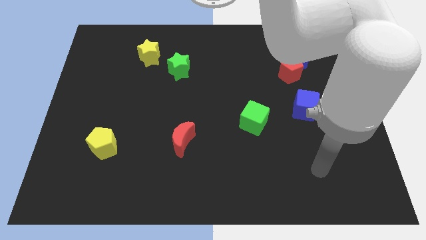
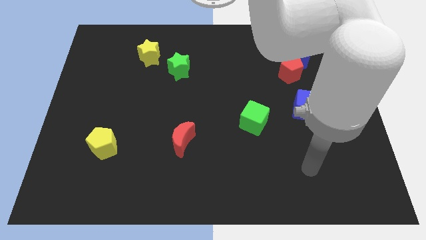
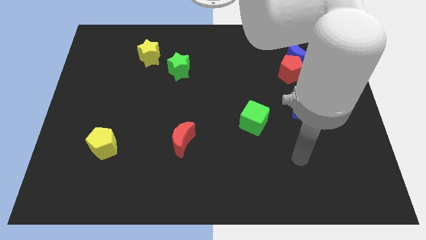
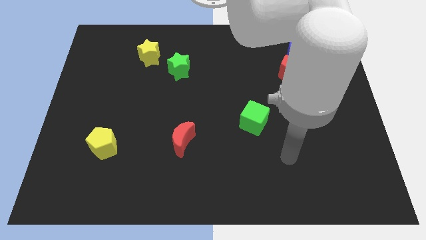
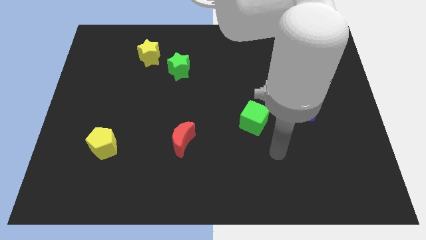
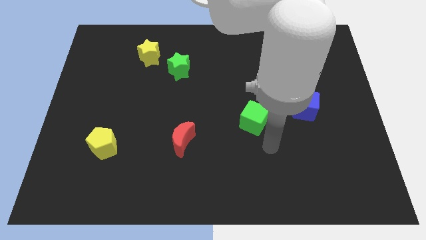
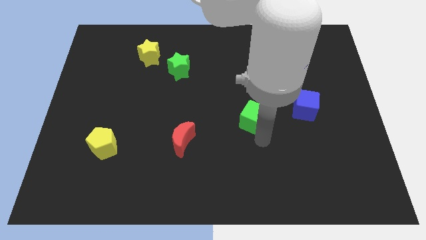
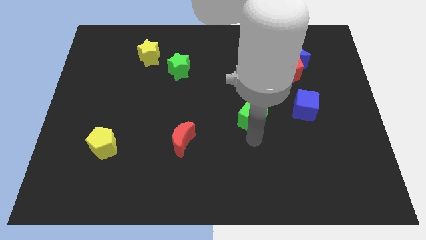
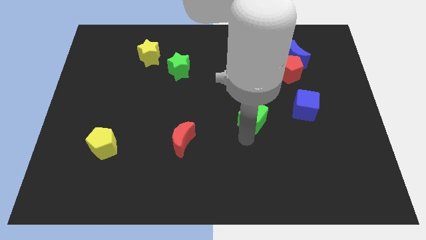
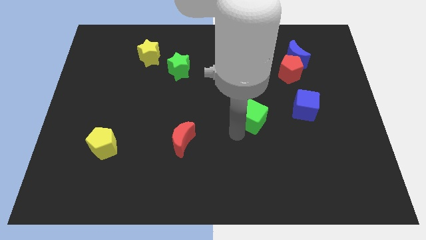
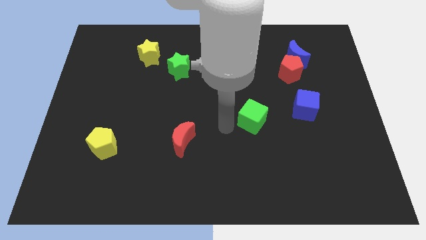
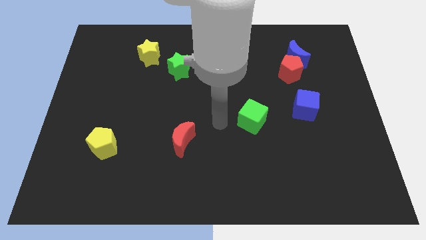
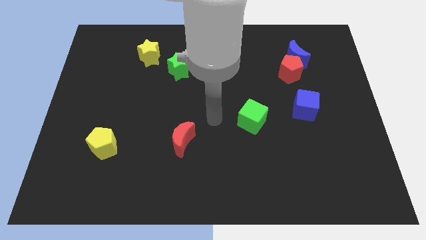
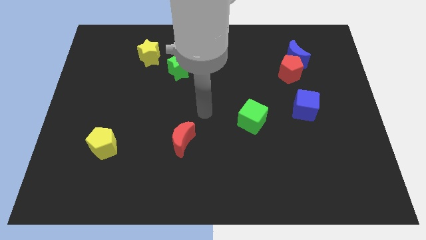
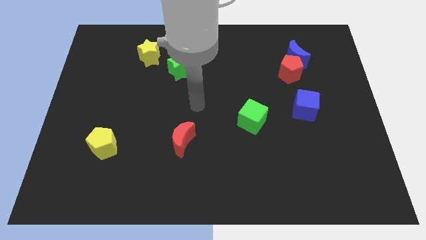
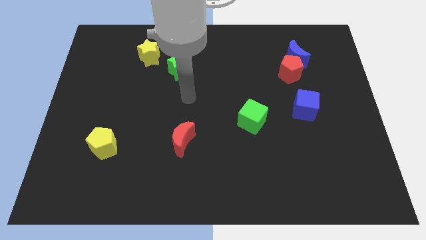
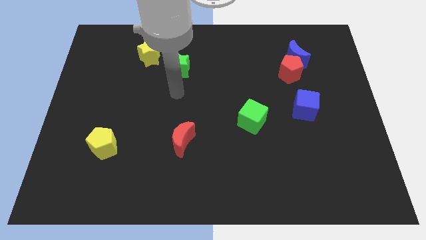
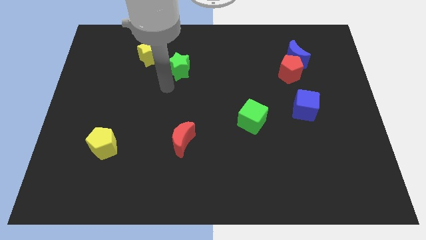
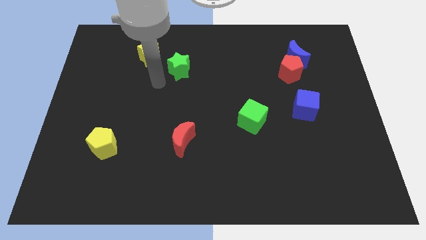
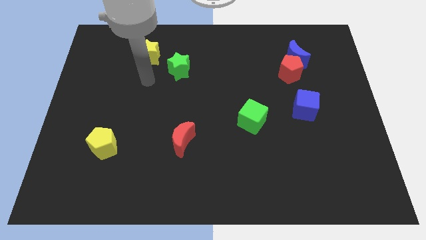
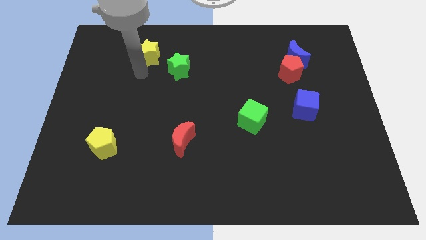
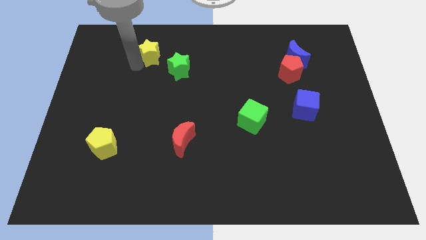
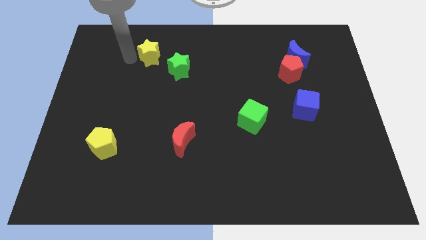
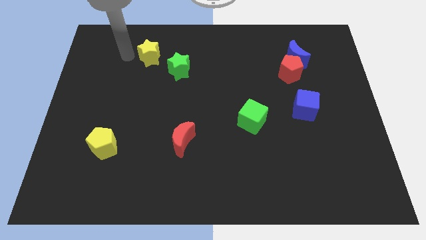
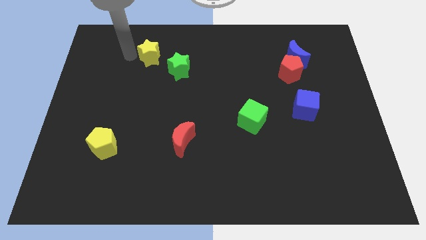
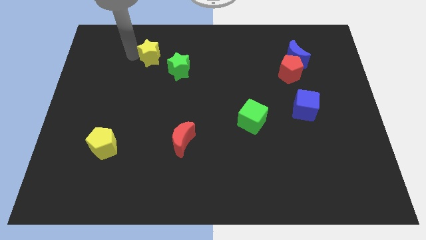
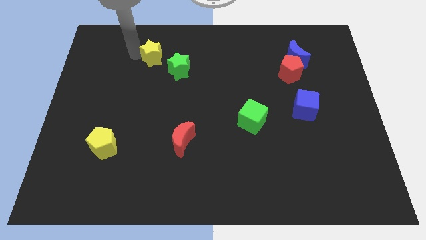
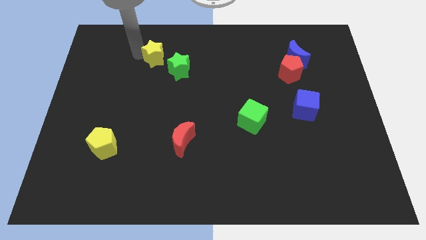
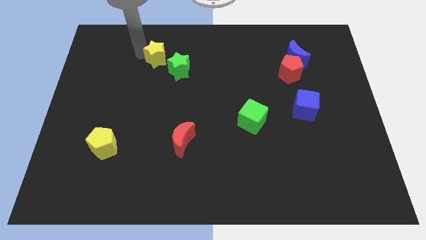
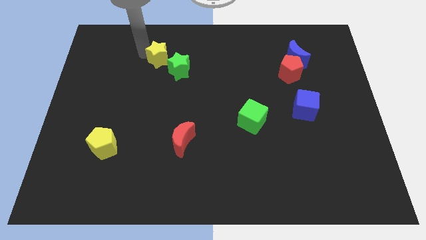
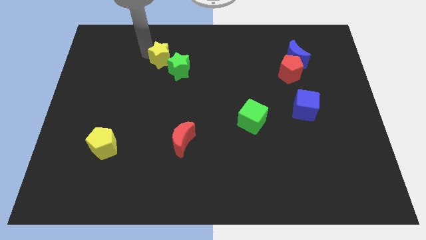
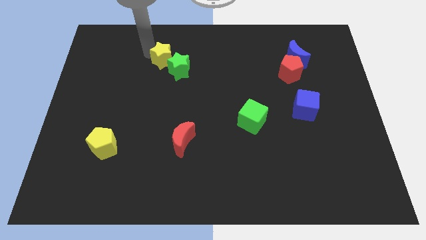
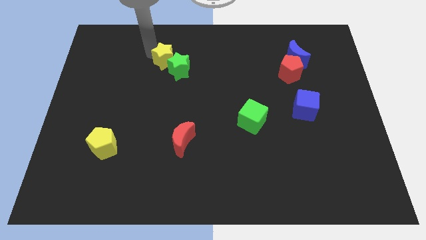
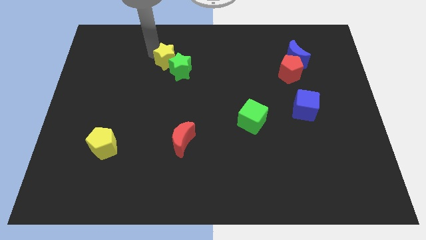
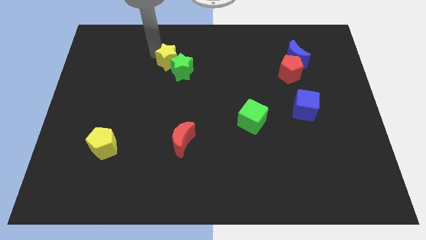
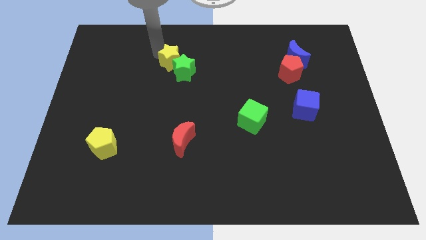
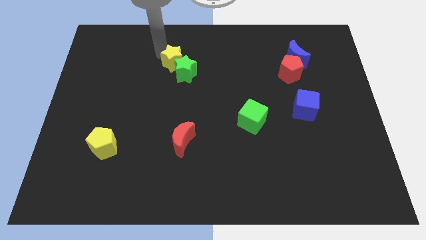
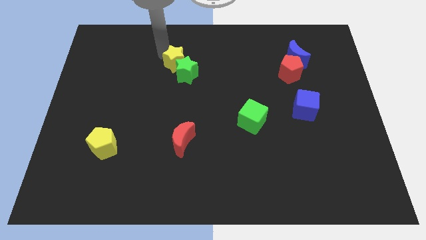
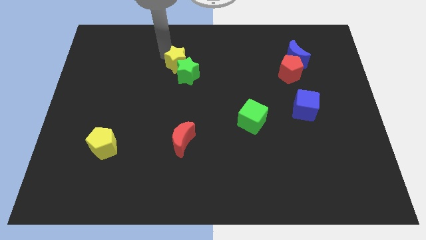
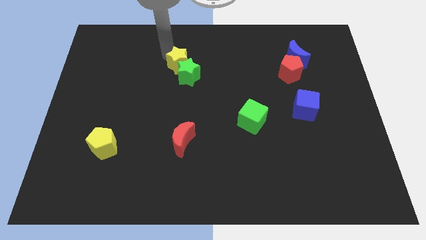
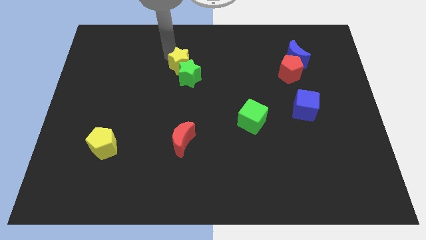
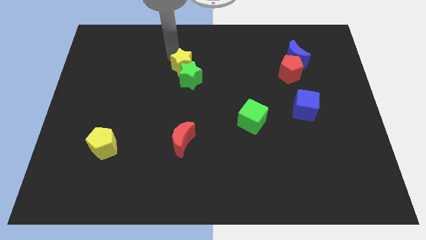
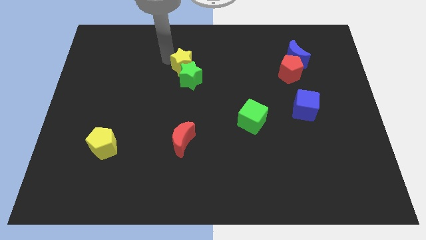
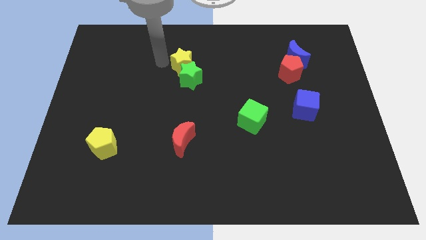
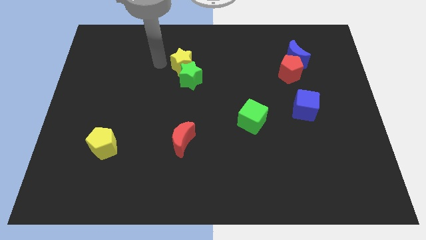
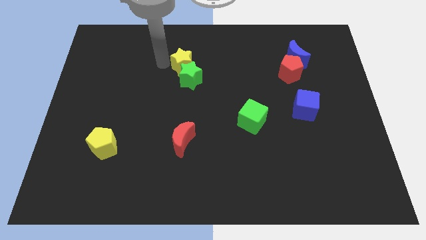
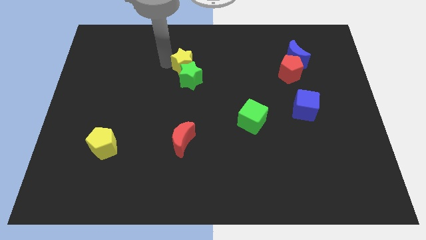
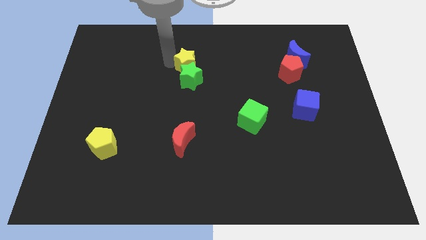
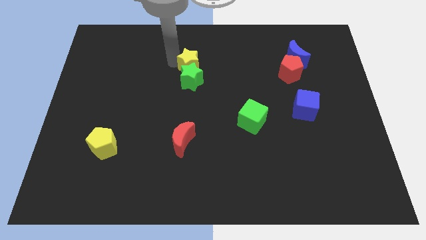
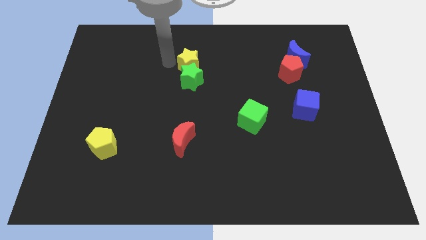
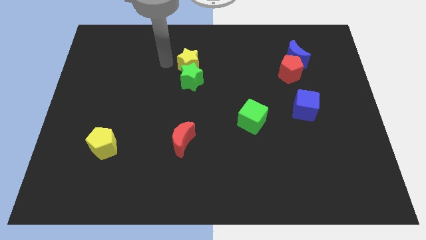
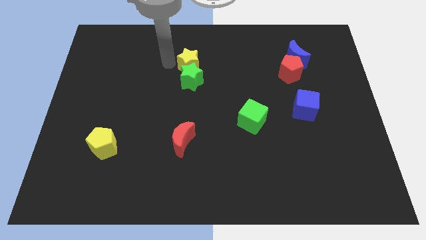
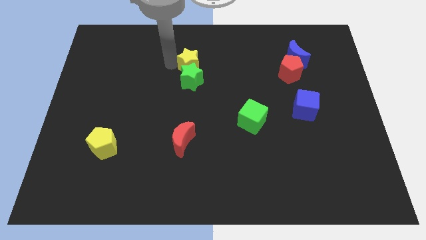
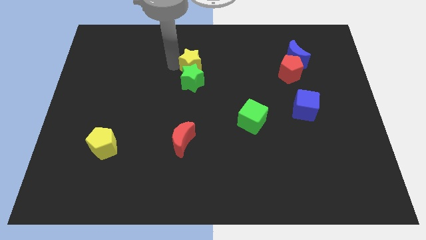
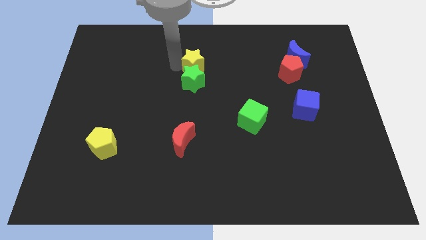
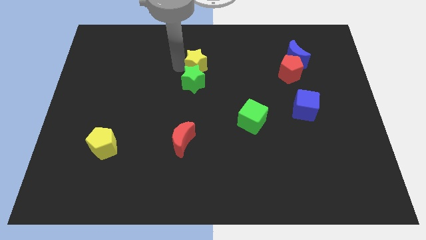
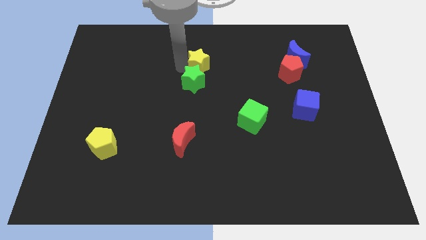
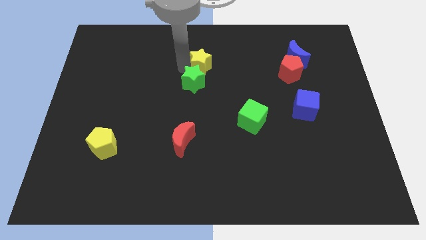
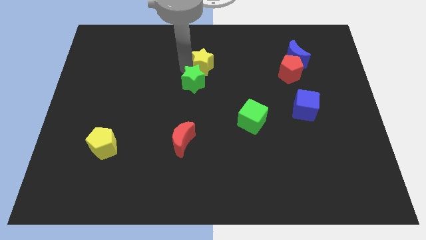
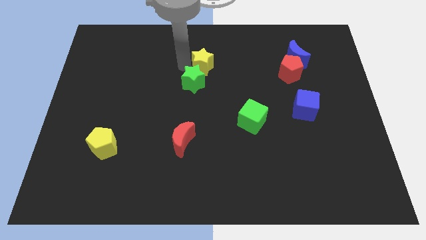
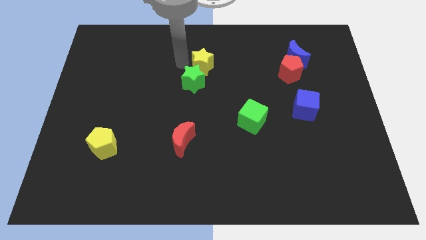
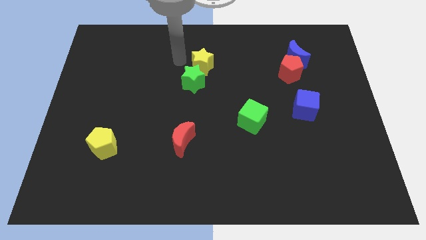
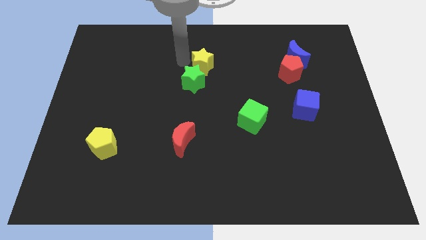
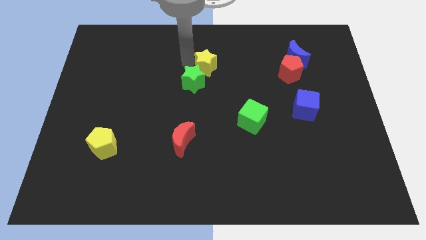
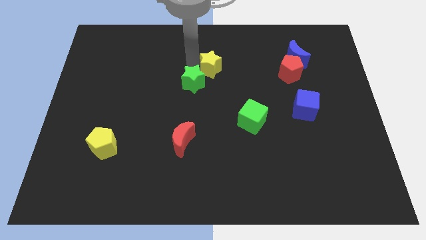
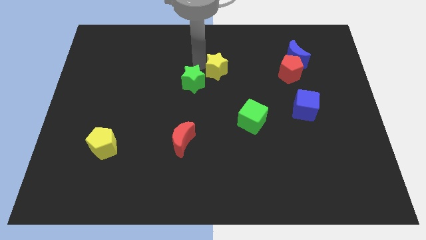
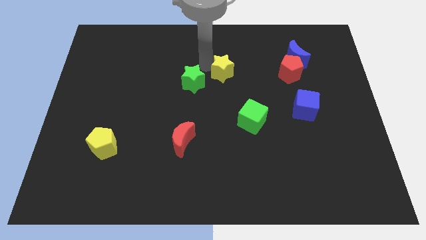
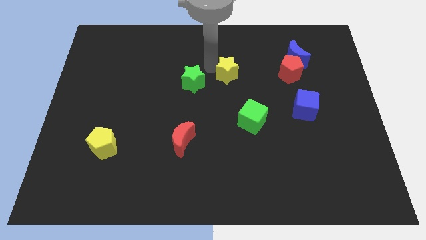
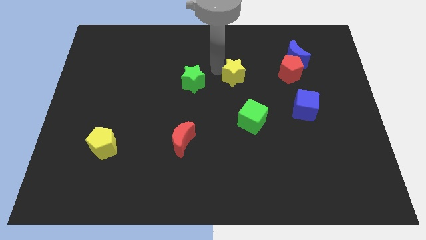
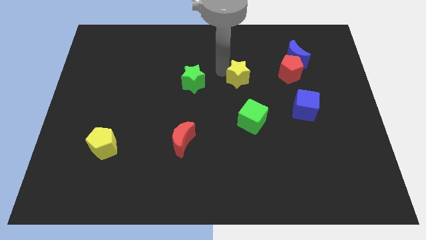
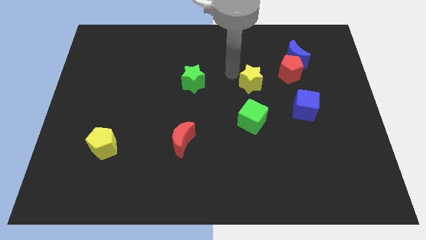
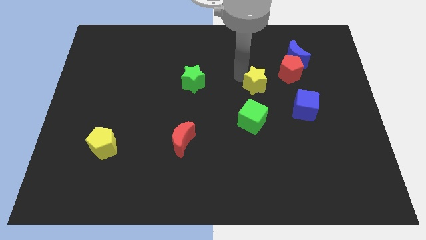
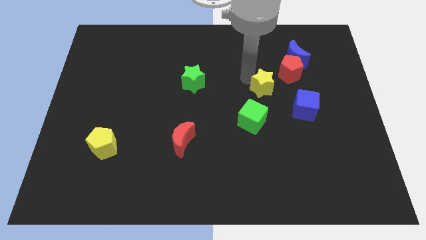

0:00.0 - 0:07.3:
push the yellow star to the top right of the green cube
